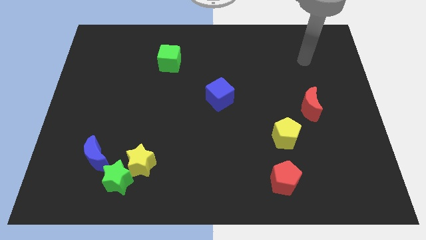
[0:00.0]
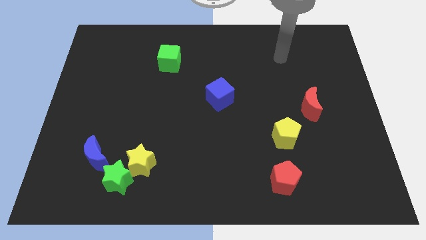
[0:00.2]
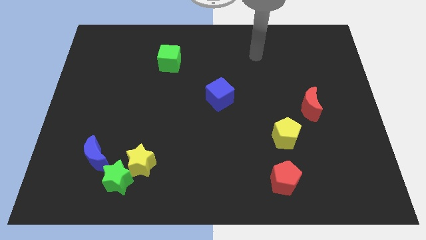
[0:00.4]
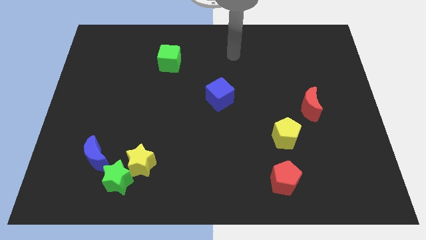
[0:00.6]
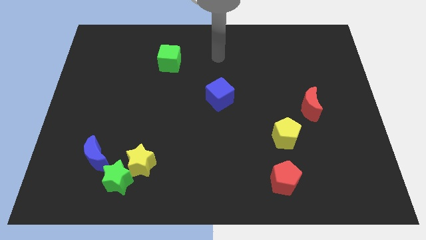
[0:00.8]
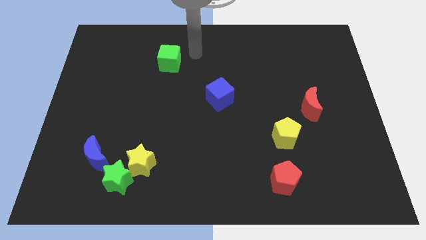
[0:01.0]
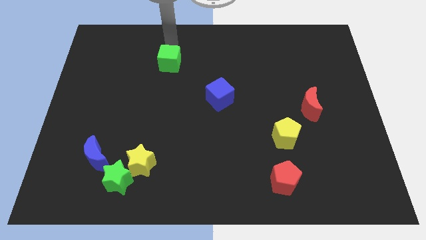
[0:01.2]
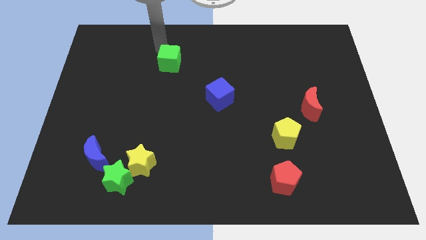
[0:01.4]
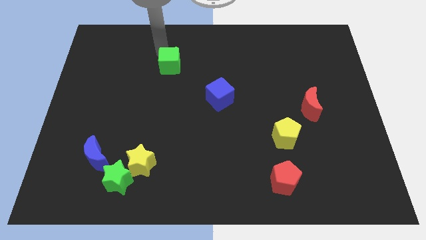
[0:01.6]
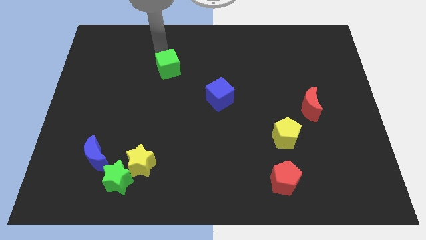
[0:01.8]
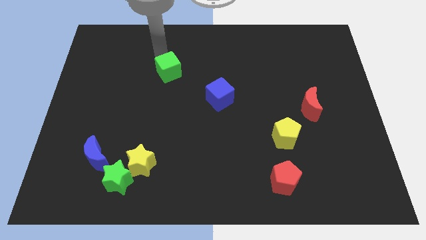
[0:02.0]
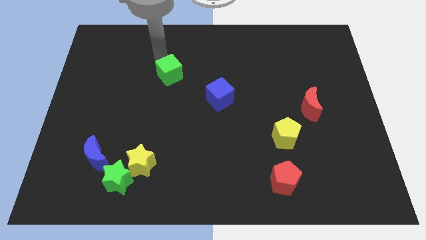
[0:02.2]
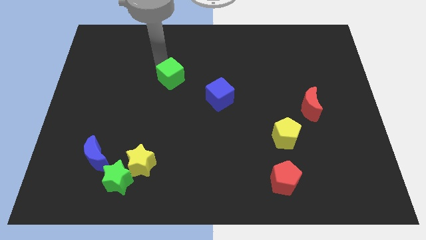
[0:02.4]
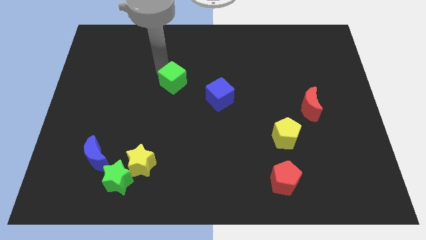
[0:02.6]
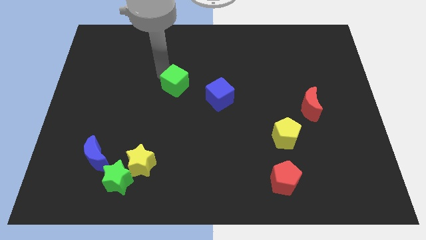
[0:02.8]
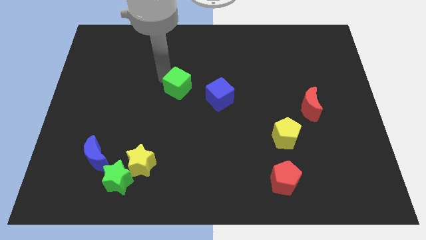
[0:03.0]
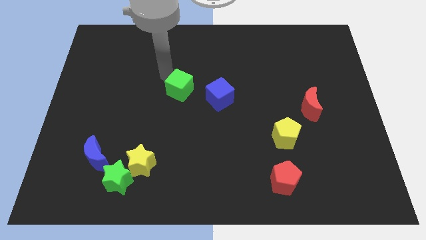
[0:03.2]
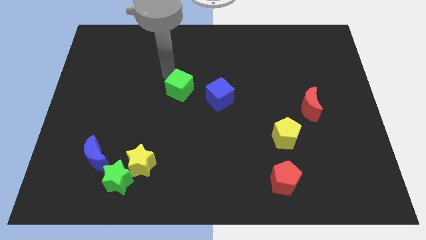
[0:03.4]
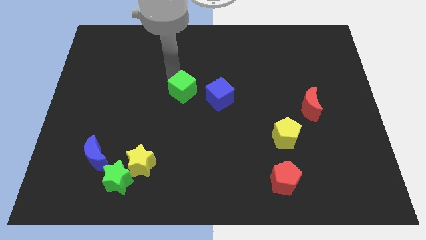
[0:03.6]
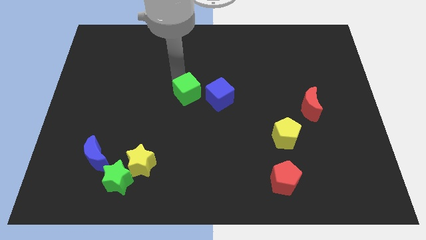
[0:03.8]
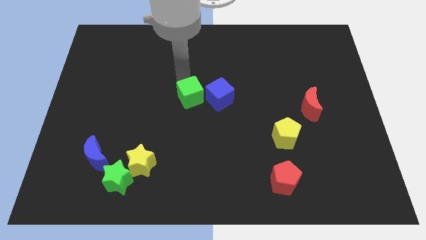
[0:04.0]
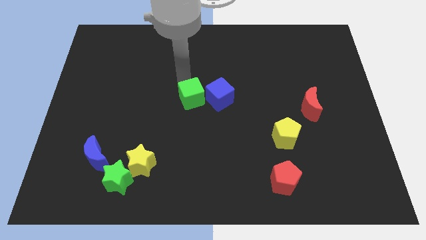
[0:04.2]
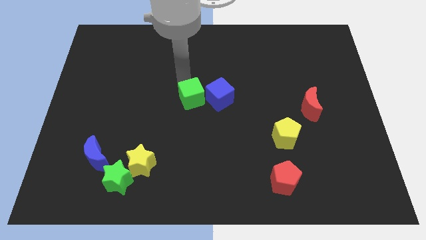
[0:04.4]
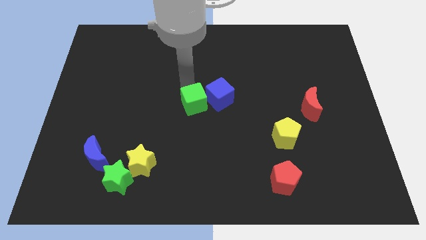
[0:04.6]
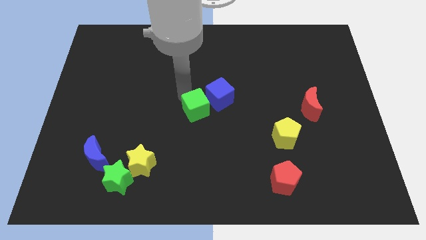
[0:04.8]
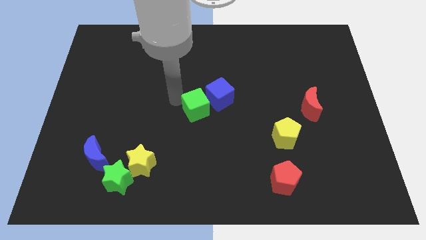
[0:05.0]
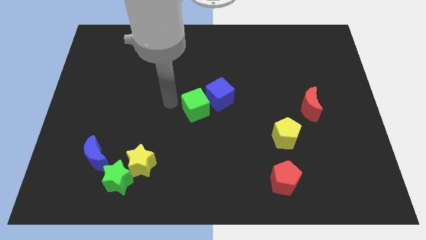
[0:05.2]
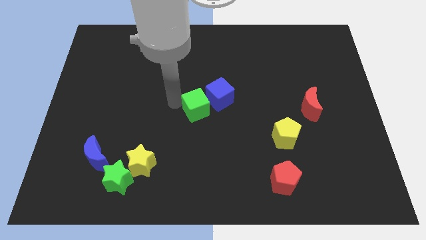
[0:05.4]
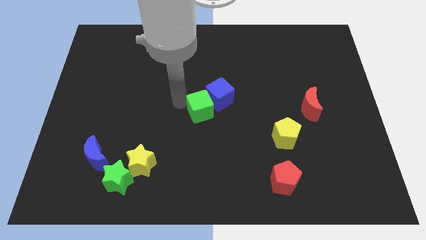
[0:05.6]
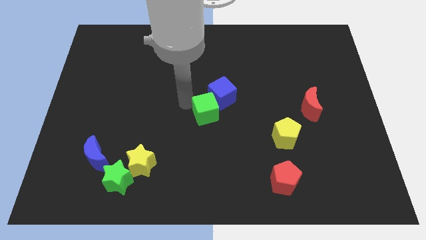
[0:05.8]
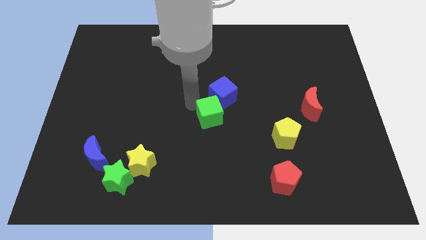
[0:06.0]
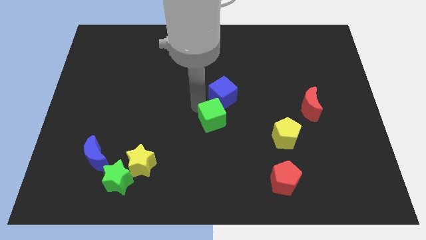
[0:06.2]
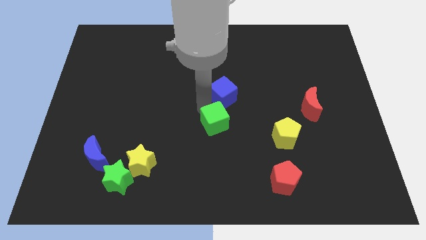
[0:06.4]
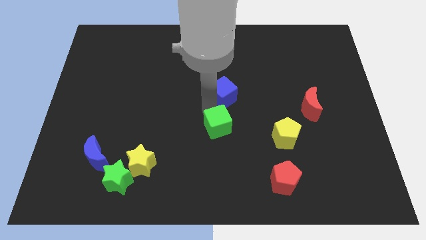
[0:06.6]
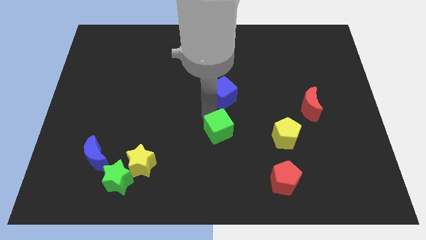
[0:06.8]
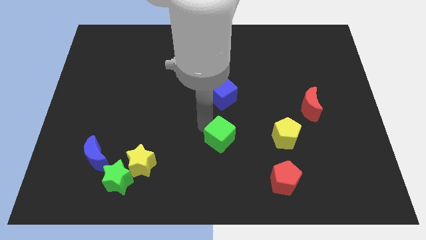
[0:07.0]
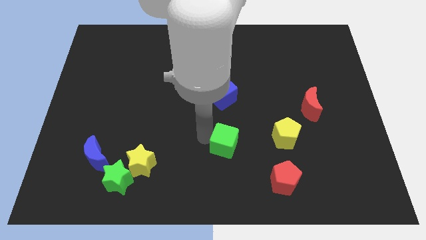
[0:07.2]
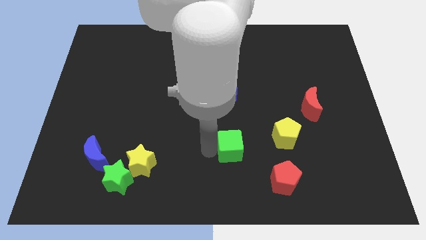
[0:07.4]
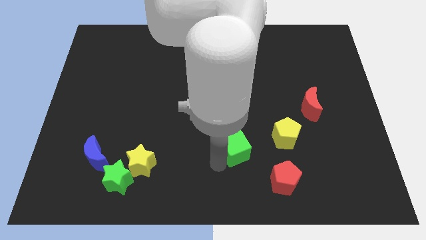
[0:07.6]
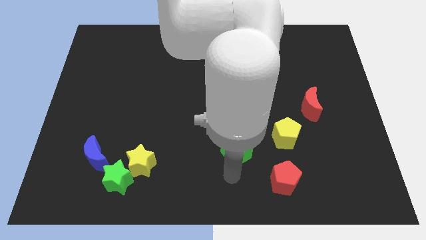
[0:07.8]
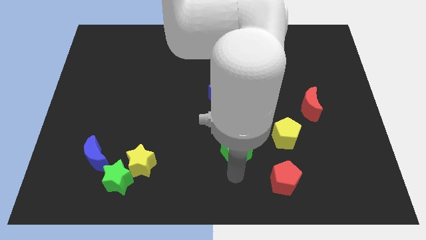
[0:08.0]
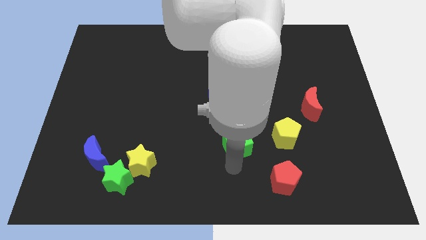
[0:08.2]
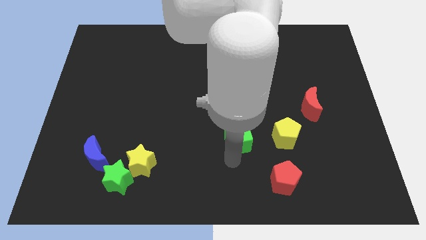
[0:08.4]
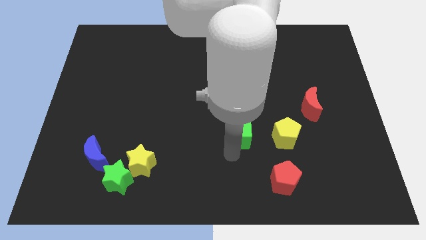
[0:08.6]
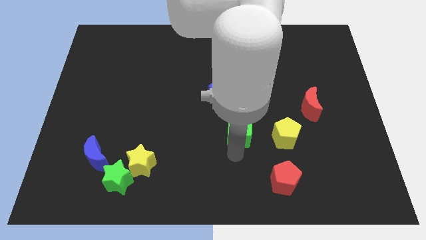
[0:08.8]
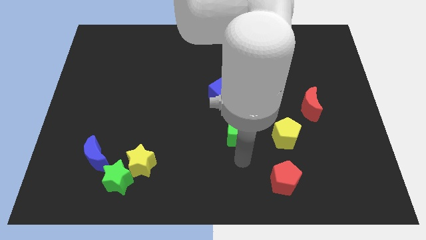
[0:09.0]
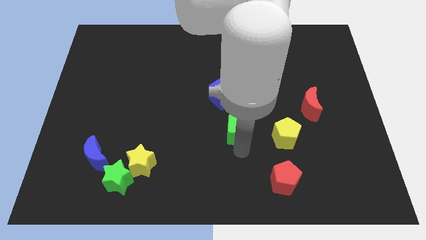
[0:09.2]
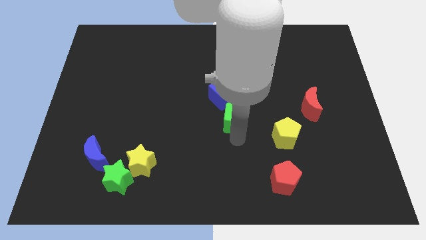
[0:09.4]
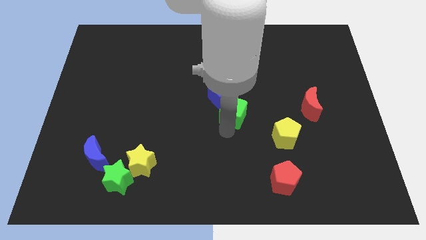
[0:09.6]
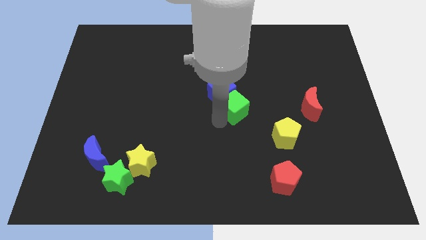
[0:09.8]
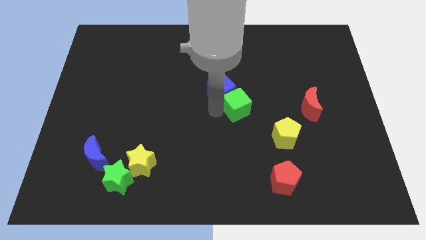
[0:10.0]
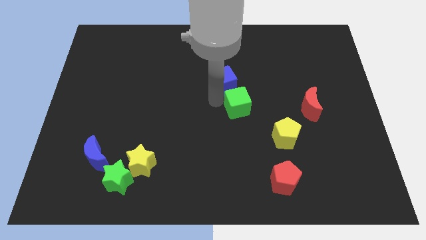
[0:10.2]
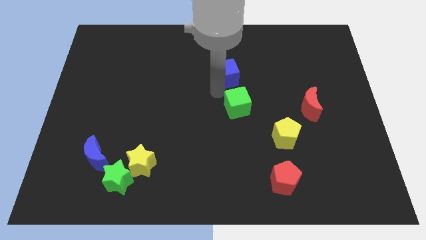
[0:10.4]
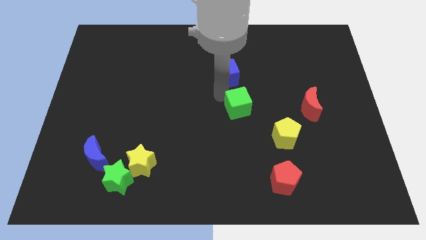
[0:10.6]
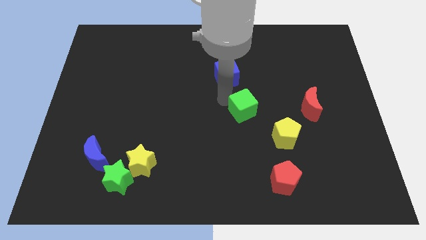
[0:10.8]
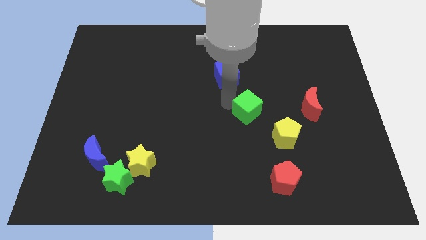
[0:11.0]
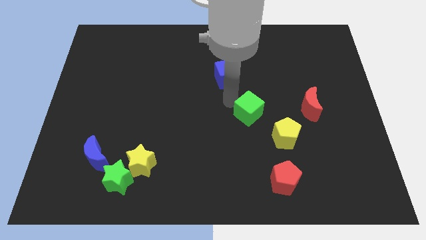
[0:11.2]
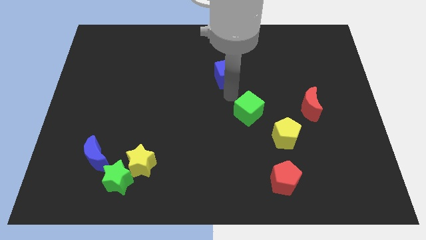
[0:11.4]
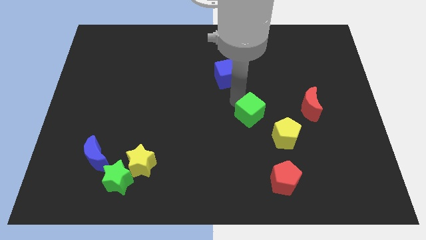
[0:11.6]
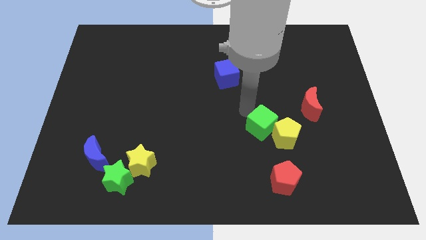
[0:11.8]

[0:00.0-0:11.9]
move the green cube to the yellow pentagon

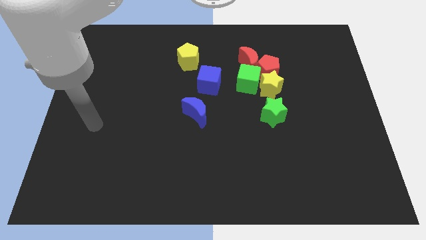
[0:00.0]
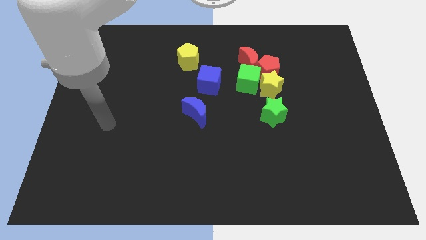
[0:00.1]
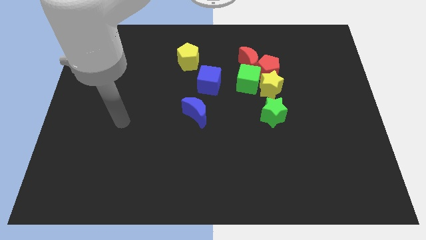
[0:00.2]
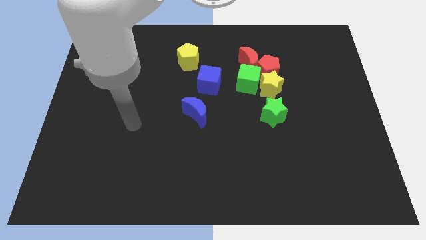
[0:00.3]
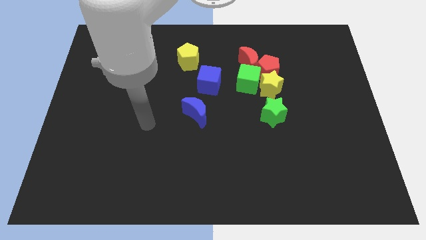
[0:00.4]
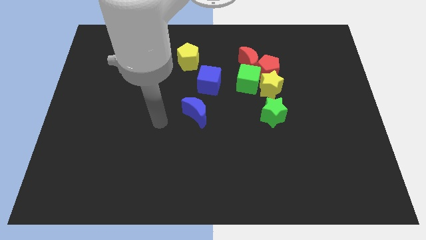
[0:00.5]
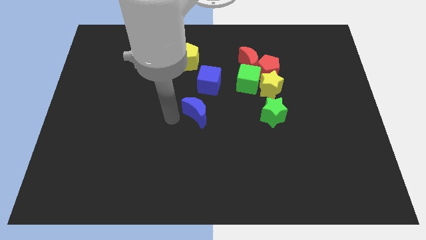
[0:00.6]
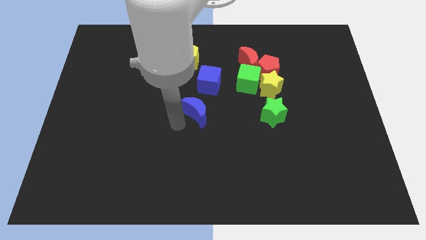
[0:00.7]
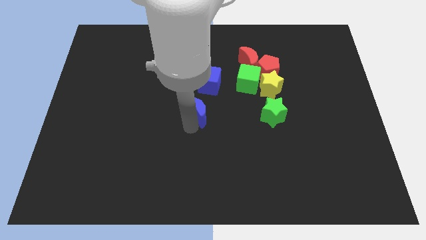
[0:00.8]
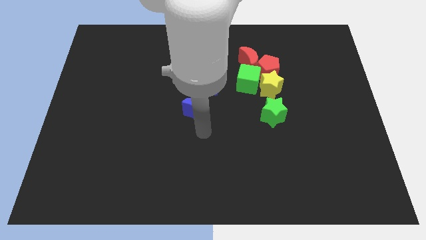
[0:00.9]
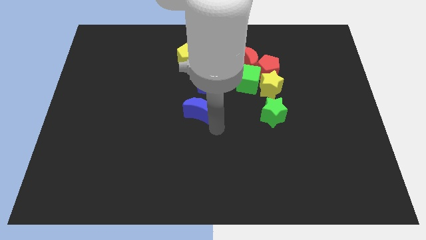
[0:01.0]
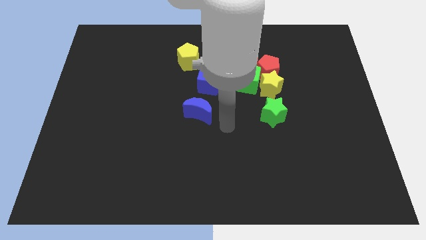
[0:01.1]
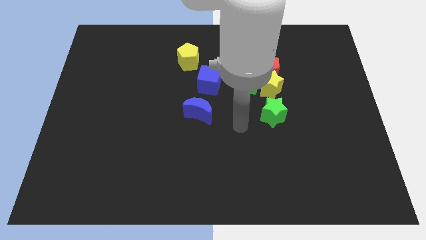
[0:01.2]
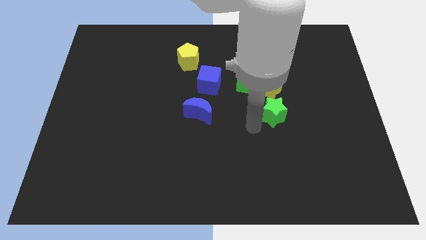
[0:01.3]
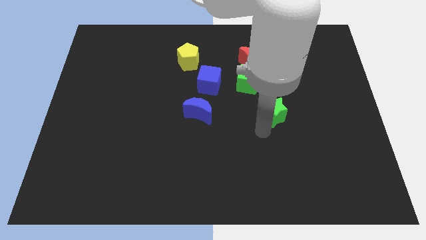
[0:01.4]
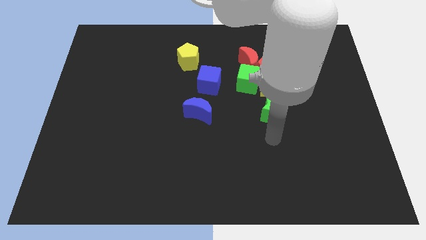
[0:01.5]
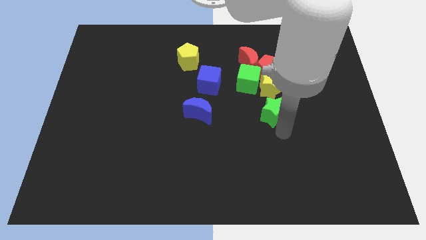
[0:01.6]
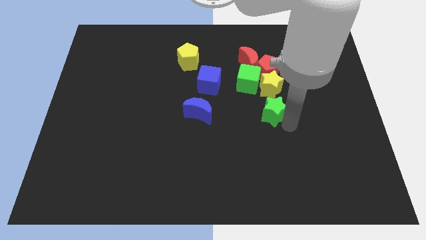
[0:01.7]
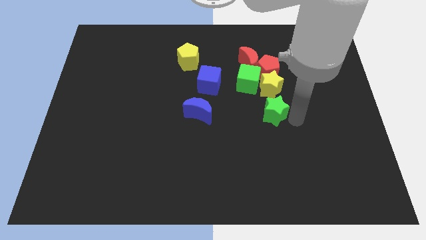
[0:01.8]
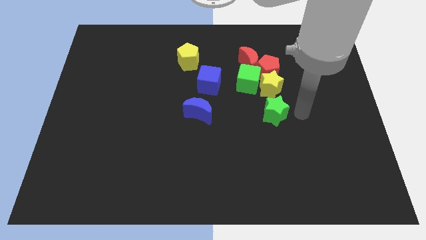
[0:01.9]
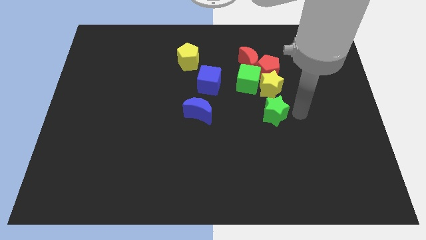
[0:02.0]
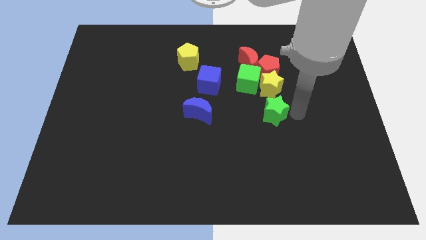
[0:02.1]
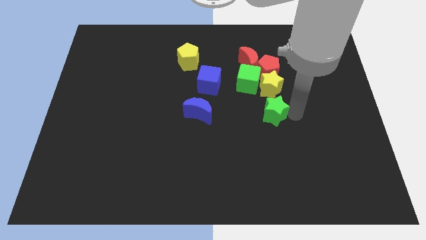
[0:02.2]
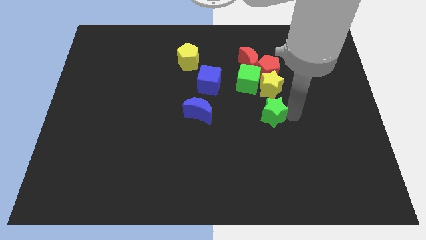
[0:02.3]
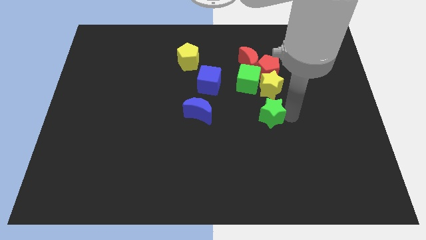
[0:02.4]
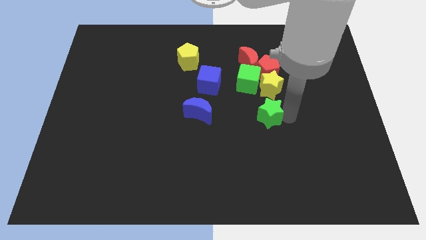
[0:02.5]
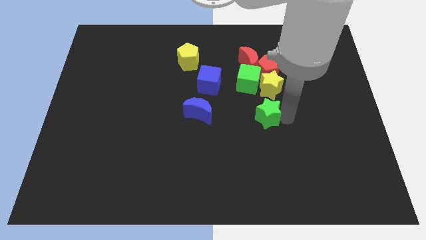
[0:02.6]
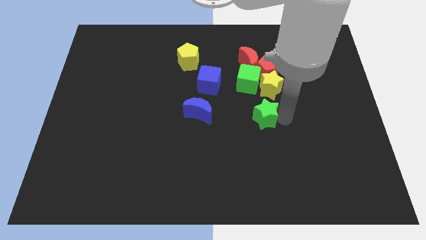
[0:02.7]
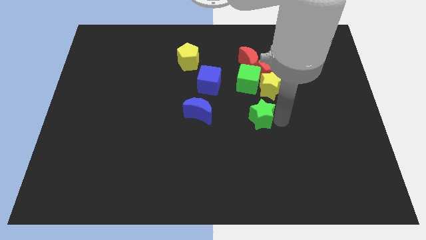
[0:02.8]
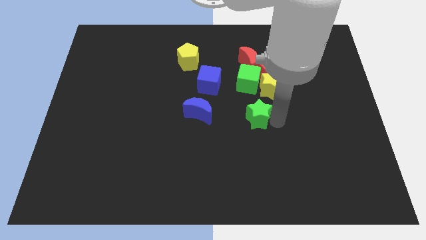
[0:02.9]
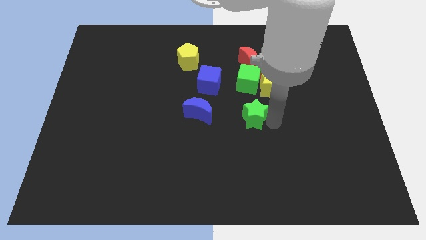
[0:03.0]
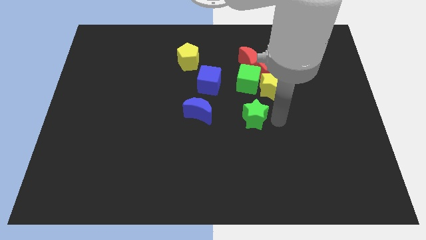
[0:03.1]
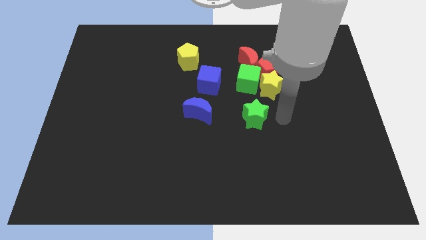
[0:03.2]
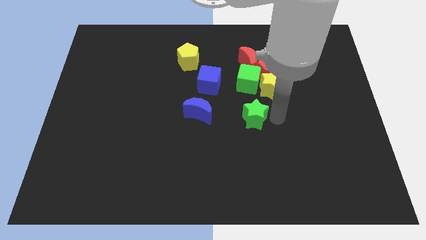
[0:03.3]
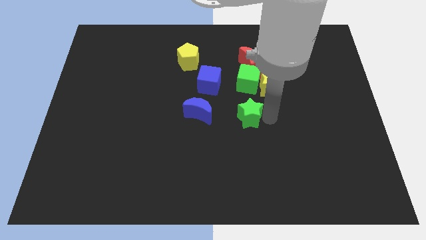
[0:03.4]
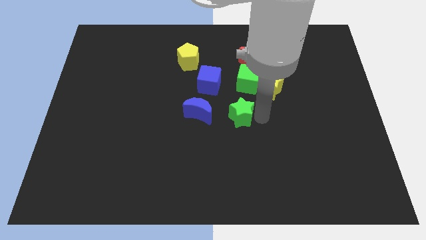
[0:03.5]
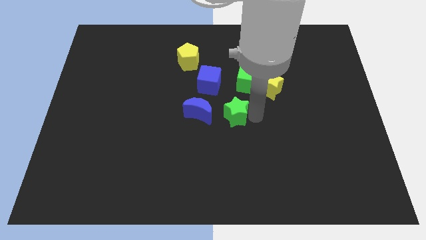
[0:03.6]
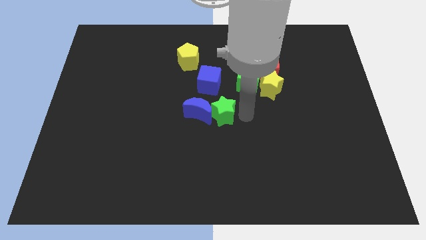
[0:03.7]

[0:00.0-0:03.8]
slide the green star close to the blue moon
